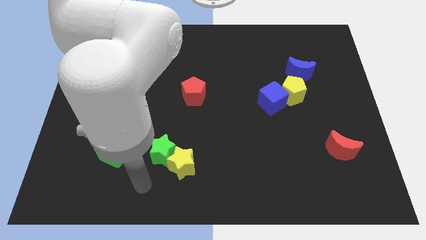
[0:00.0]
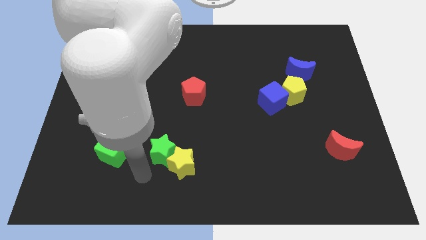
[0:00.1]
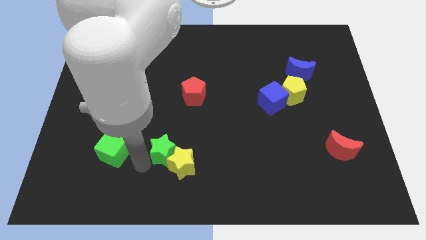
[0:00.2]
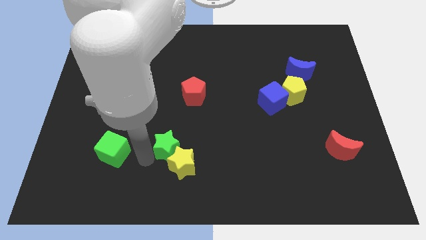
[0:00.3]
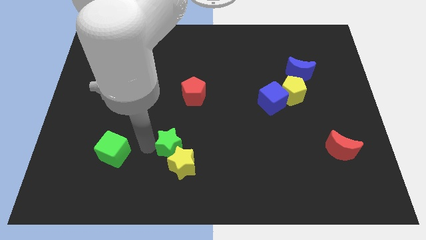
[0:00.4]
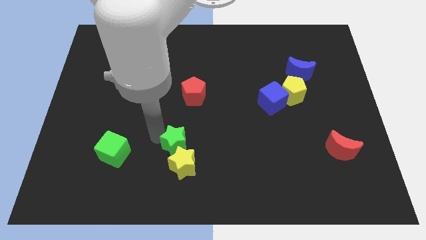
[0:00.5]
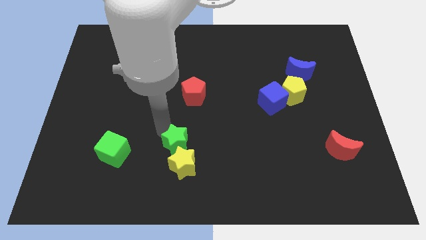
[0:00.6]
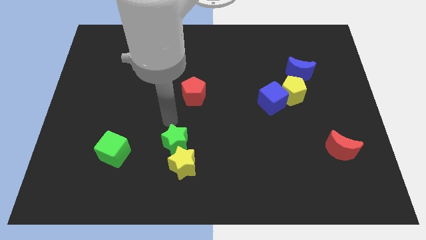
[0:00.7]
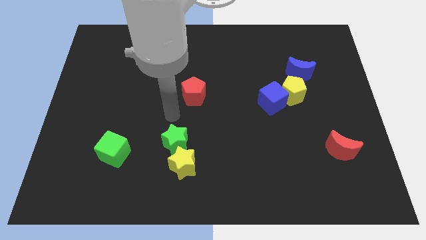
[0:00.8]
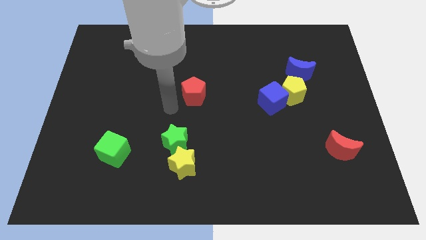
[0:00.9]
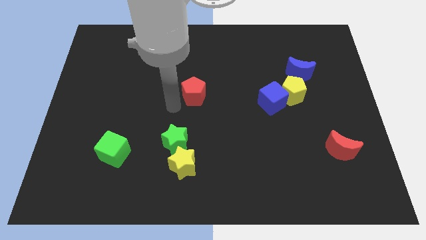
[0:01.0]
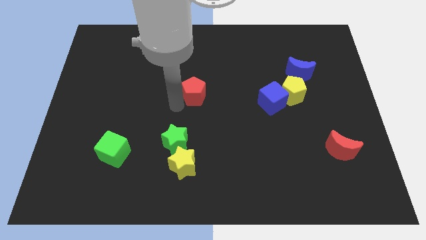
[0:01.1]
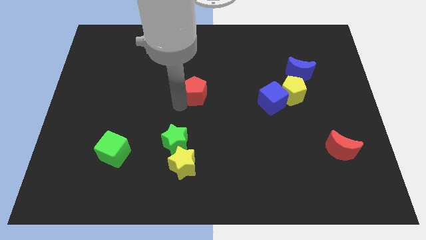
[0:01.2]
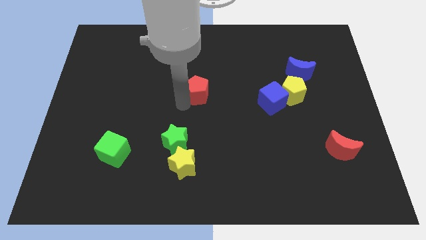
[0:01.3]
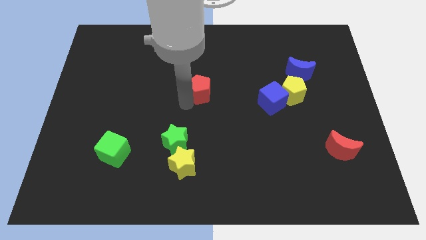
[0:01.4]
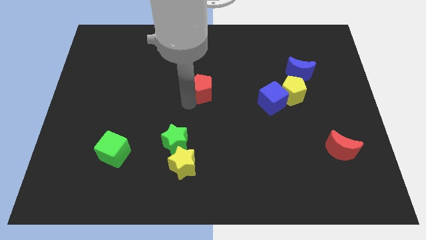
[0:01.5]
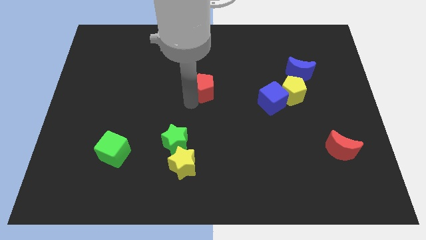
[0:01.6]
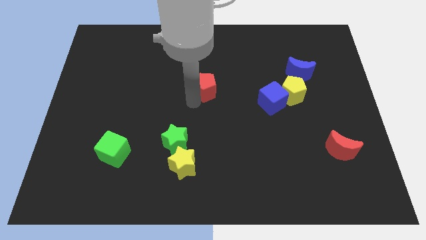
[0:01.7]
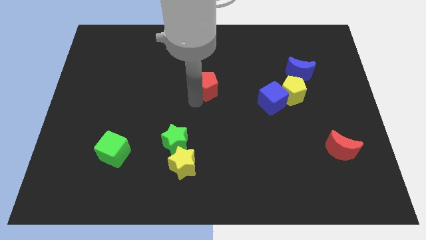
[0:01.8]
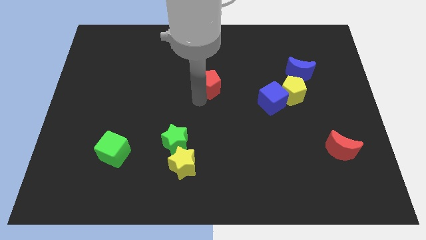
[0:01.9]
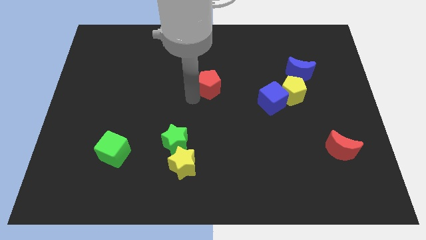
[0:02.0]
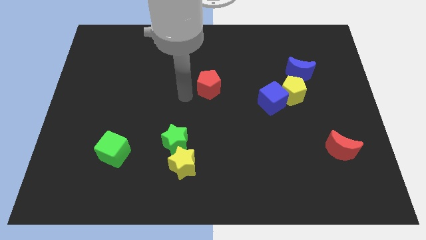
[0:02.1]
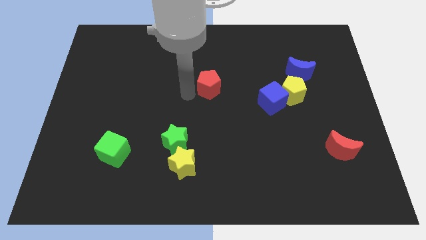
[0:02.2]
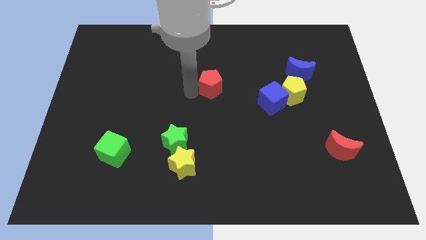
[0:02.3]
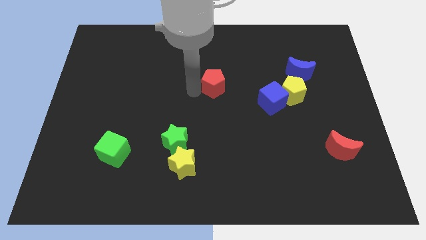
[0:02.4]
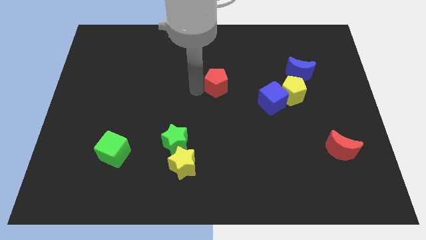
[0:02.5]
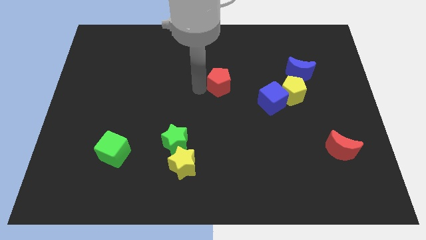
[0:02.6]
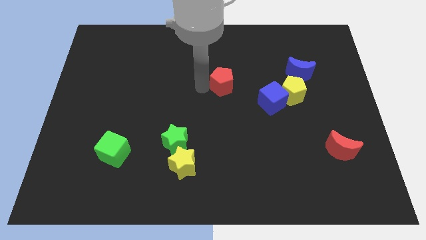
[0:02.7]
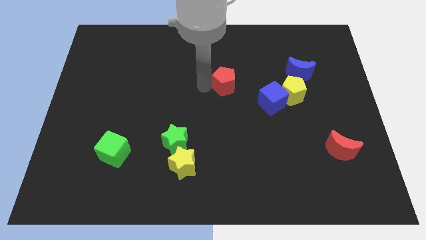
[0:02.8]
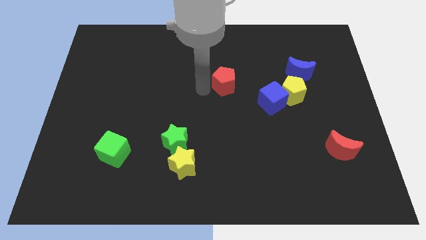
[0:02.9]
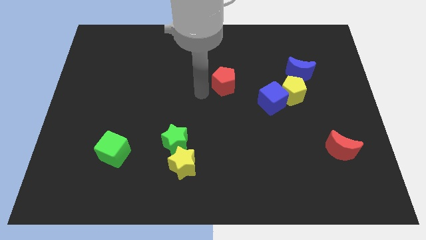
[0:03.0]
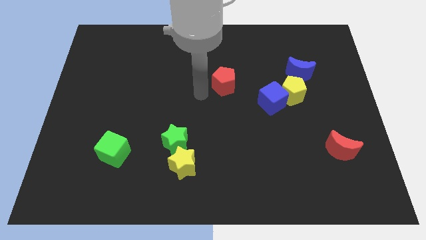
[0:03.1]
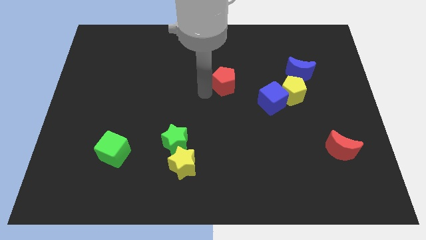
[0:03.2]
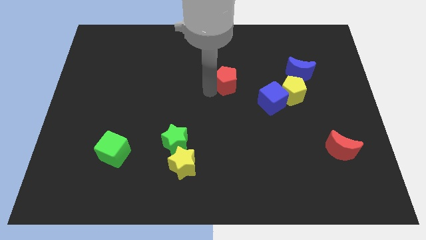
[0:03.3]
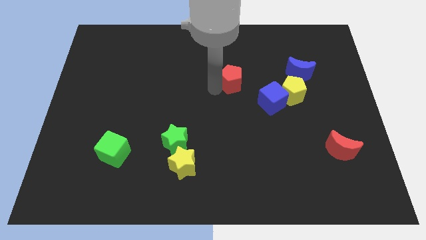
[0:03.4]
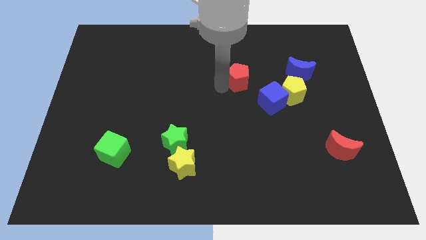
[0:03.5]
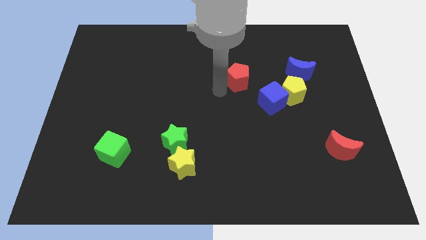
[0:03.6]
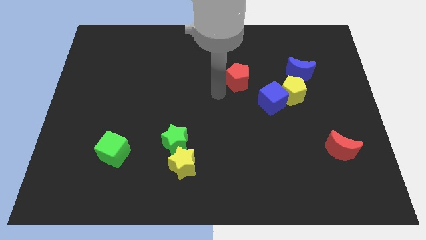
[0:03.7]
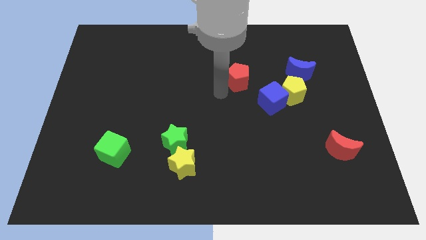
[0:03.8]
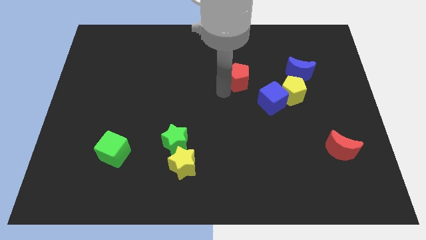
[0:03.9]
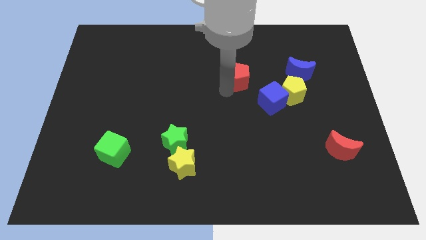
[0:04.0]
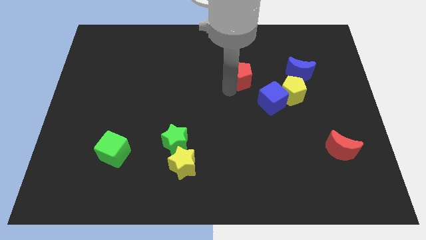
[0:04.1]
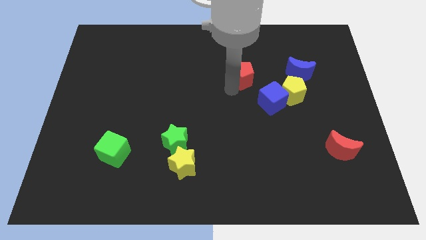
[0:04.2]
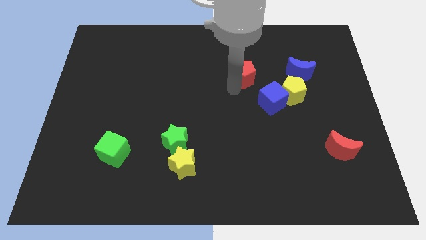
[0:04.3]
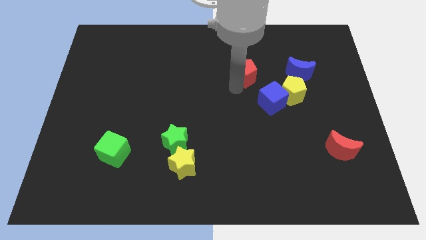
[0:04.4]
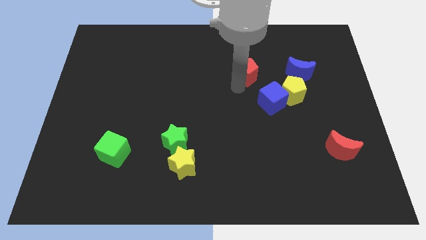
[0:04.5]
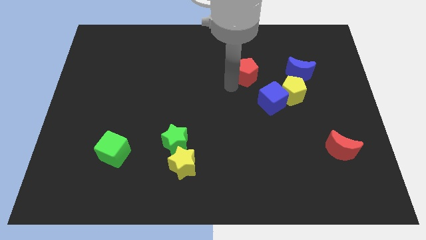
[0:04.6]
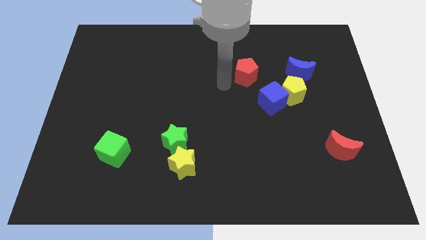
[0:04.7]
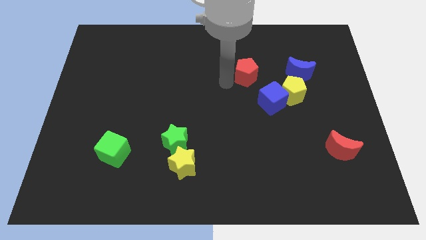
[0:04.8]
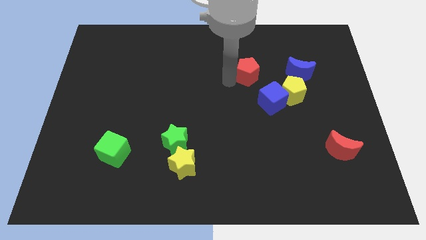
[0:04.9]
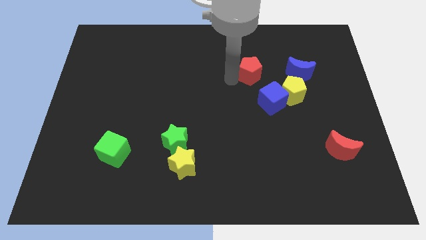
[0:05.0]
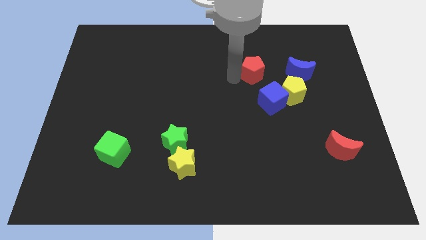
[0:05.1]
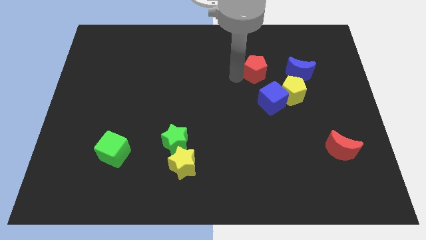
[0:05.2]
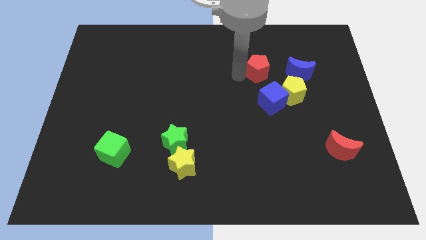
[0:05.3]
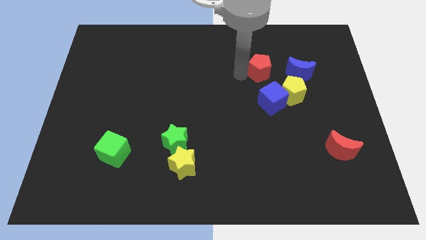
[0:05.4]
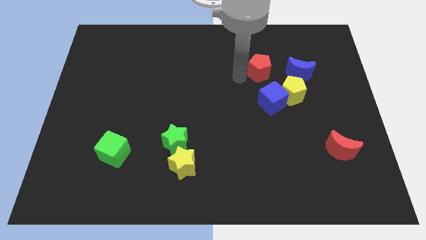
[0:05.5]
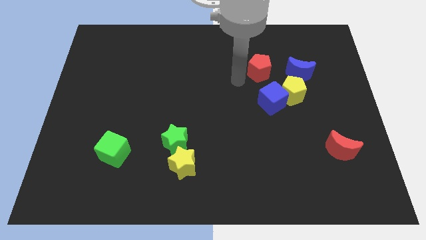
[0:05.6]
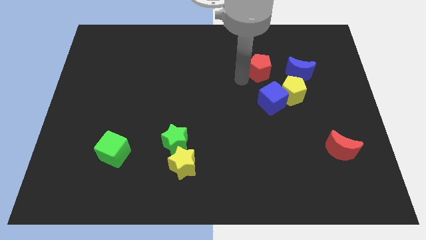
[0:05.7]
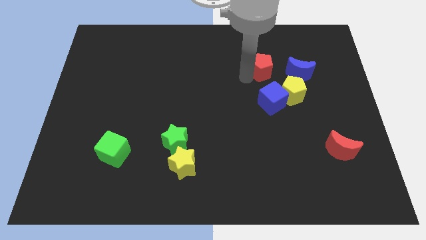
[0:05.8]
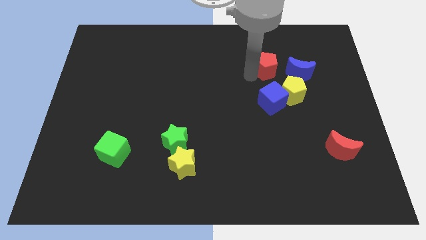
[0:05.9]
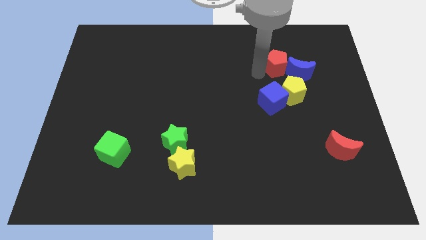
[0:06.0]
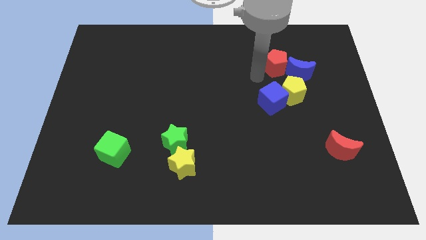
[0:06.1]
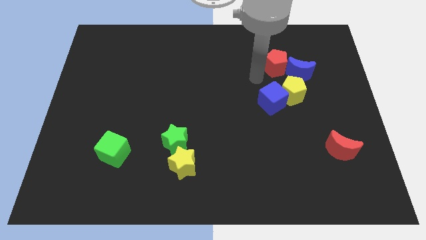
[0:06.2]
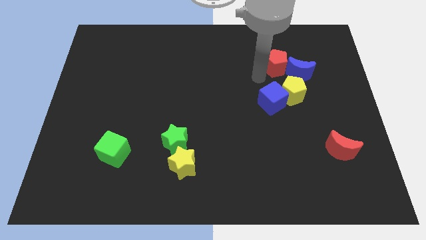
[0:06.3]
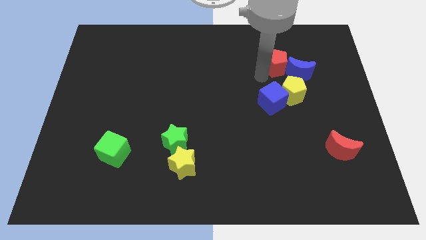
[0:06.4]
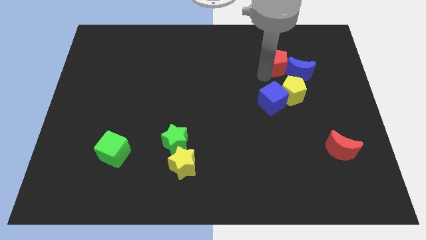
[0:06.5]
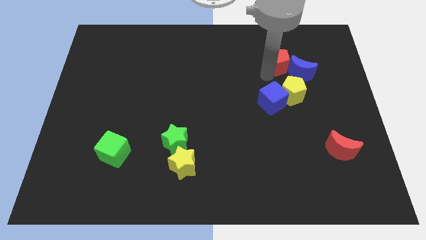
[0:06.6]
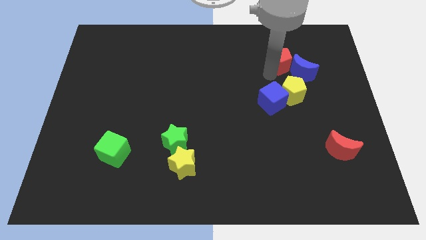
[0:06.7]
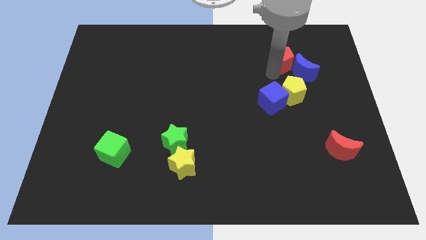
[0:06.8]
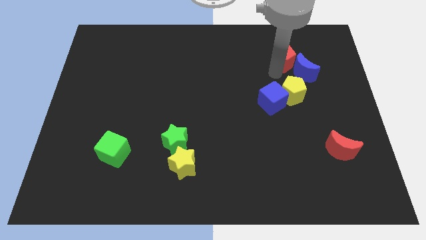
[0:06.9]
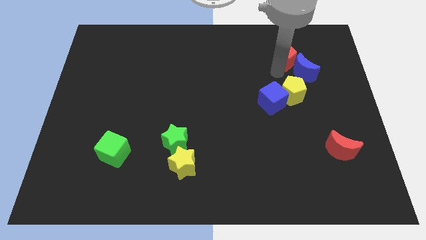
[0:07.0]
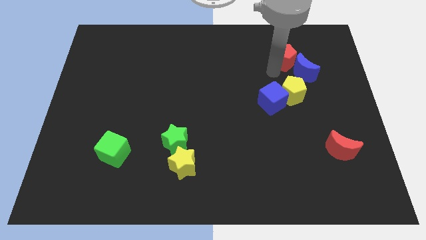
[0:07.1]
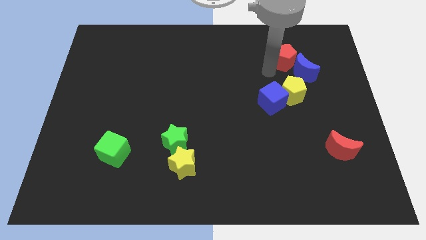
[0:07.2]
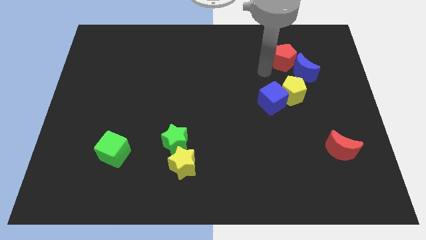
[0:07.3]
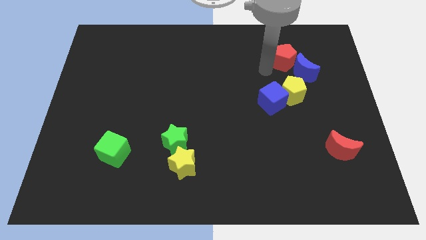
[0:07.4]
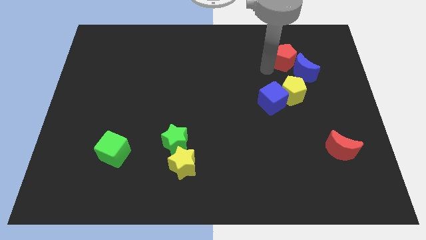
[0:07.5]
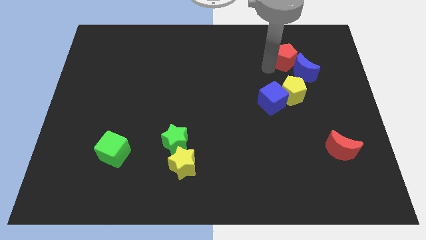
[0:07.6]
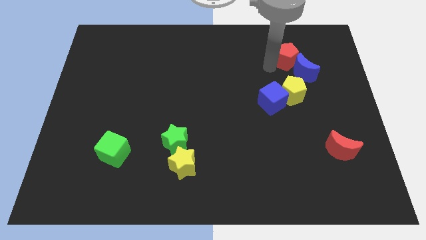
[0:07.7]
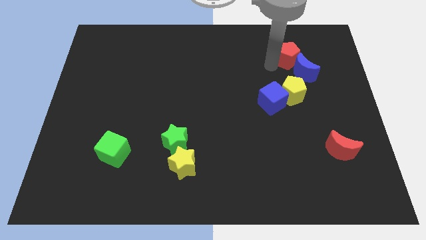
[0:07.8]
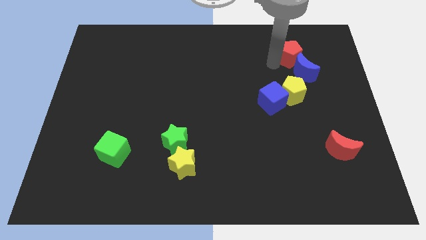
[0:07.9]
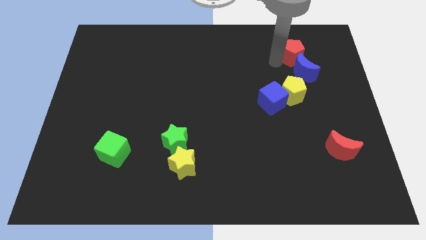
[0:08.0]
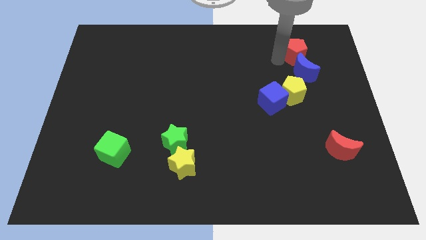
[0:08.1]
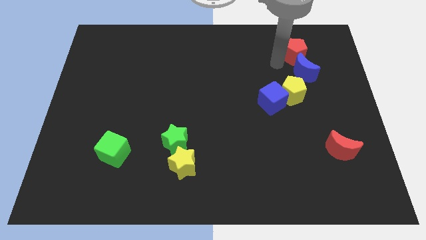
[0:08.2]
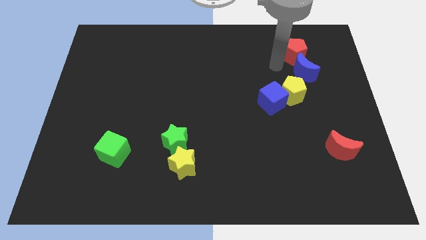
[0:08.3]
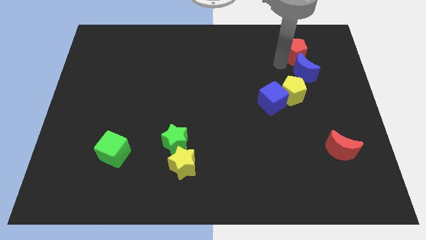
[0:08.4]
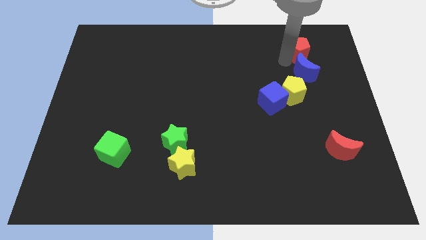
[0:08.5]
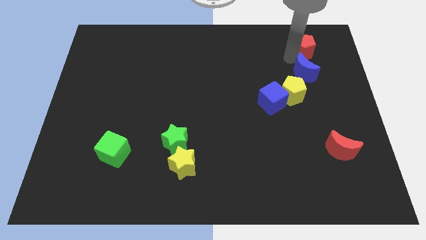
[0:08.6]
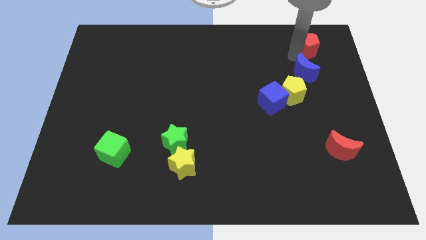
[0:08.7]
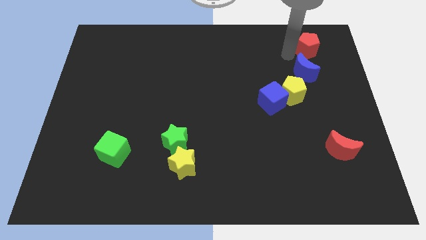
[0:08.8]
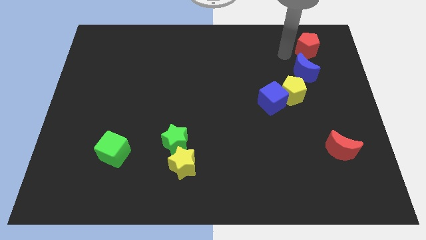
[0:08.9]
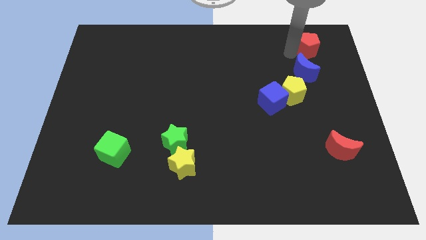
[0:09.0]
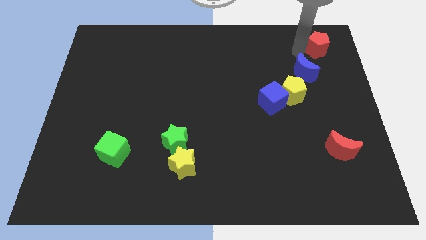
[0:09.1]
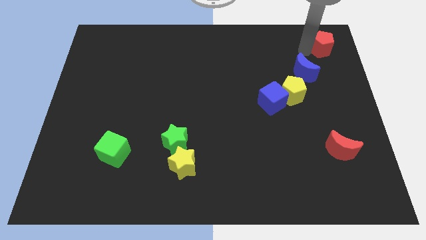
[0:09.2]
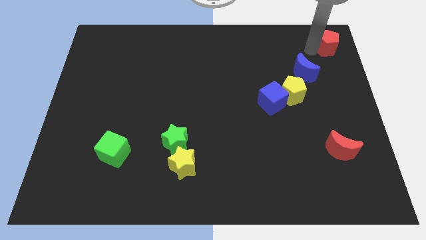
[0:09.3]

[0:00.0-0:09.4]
push the red pentagon to the top right corner
